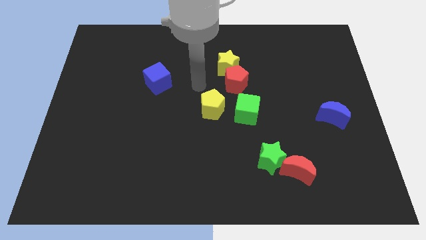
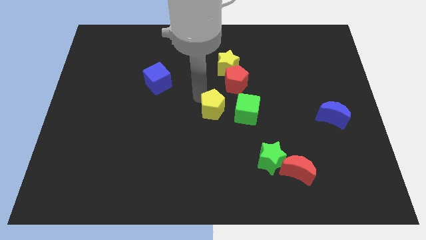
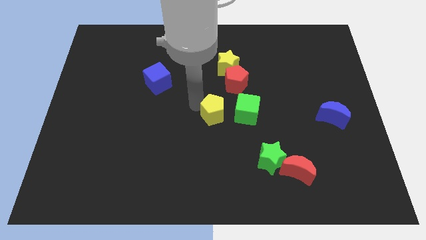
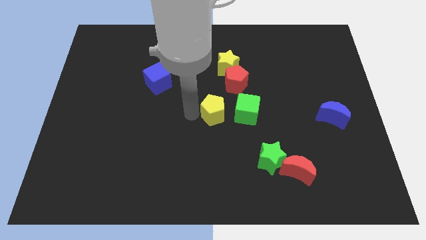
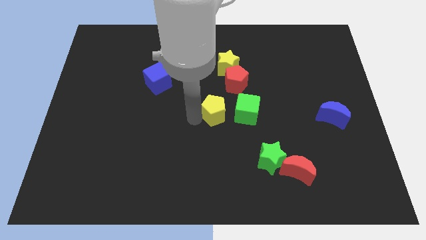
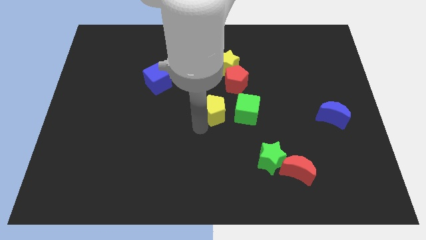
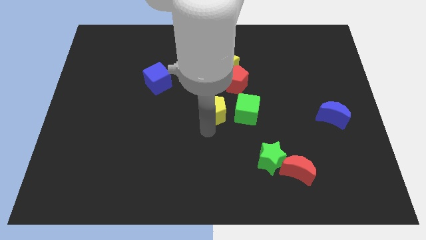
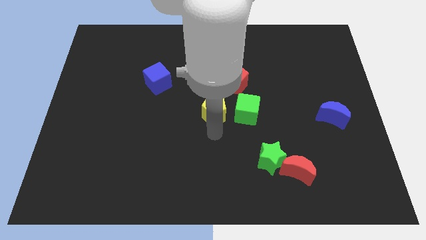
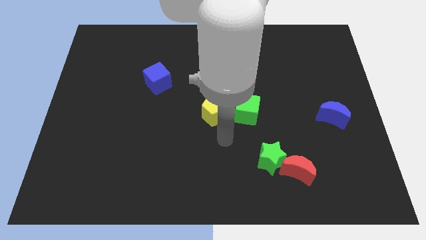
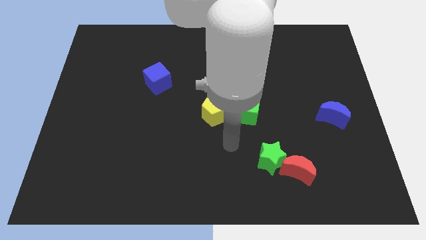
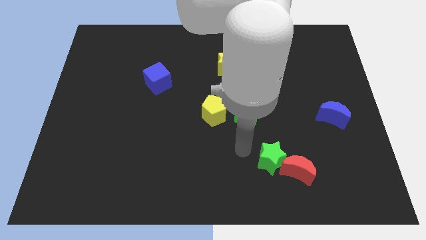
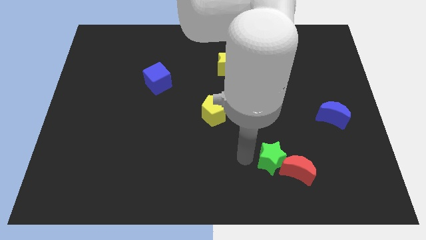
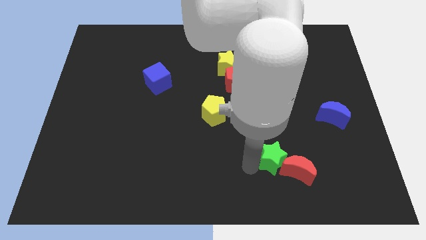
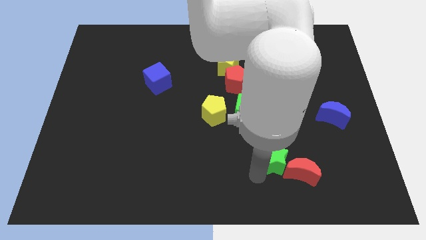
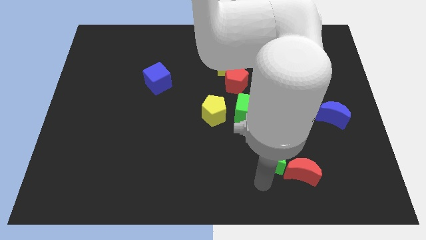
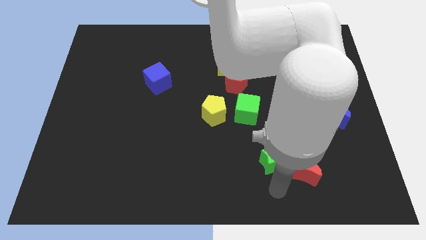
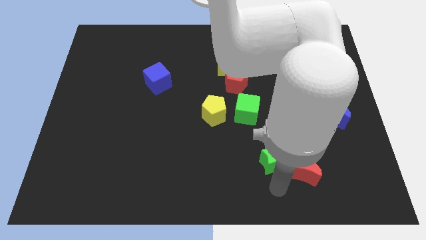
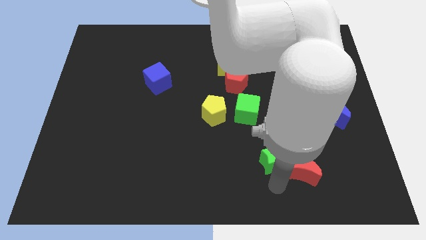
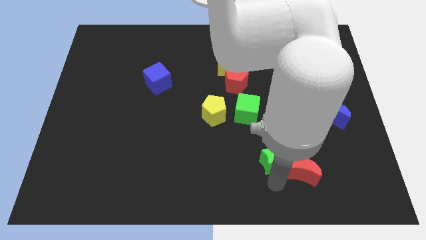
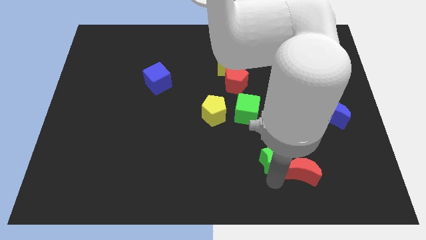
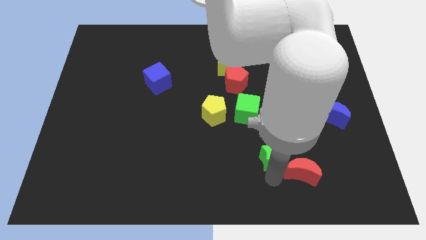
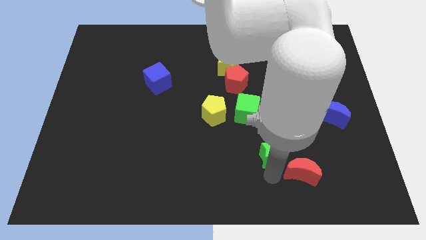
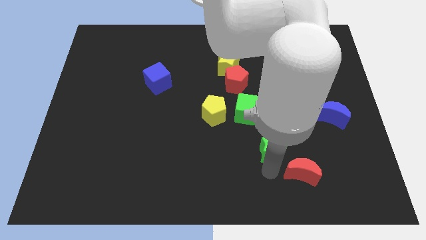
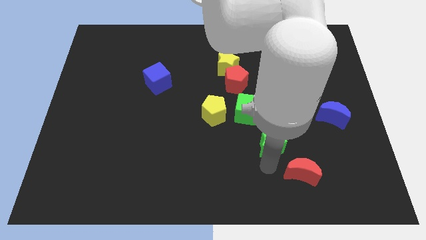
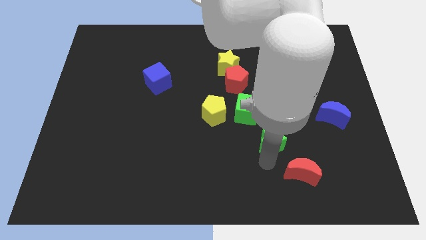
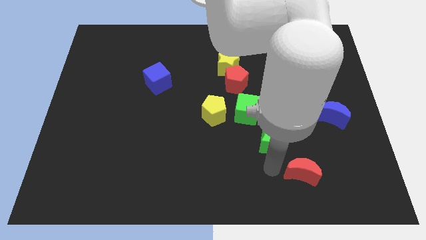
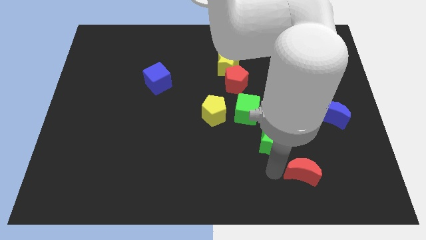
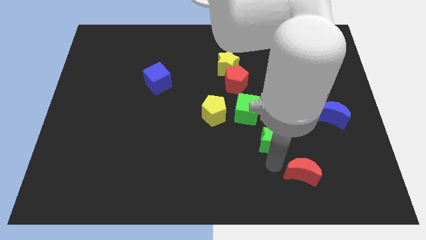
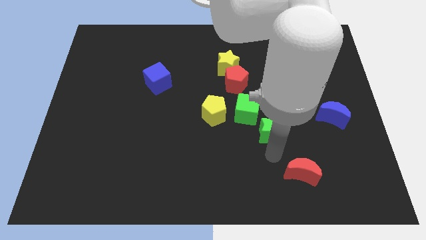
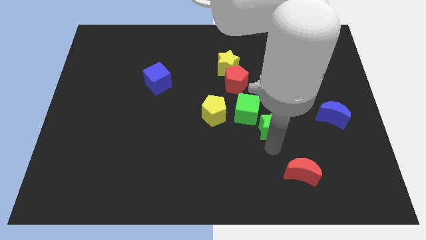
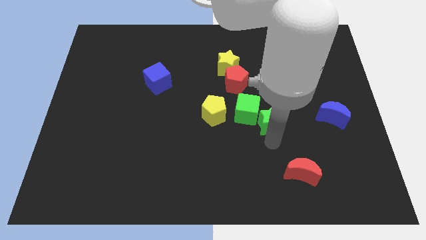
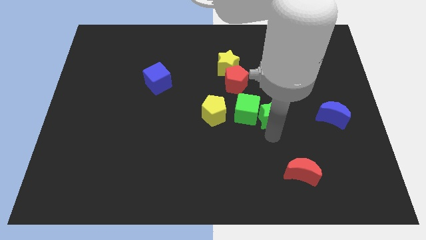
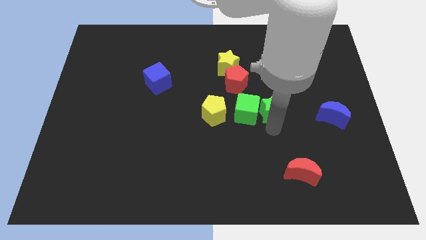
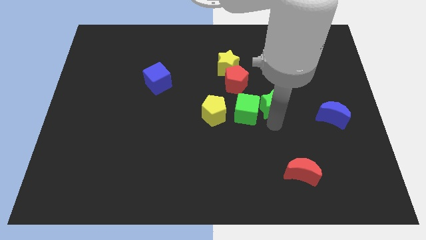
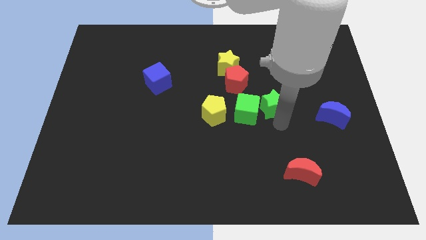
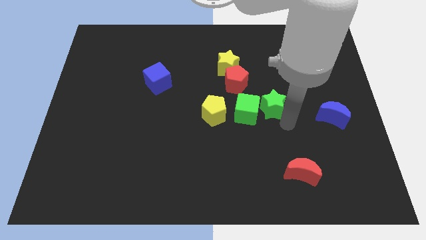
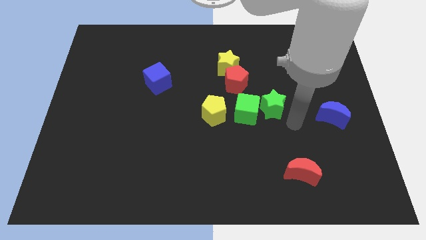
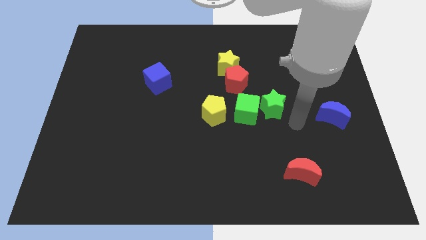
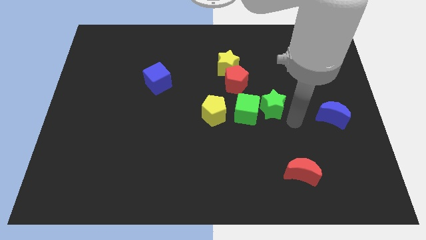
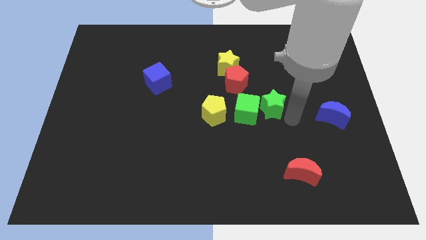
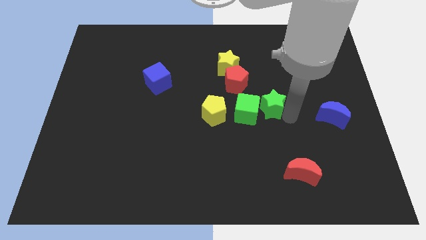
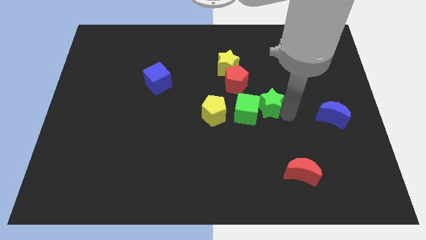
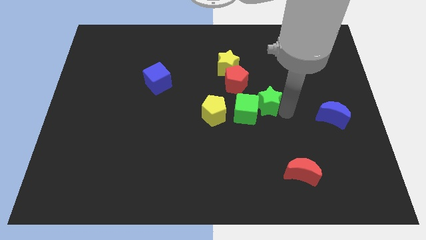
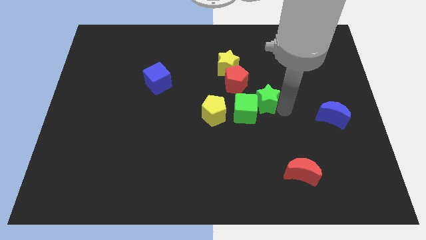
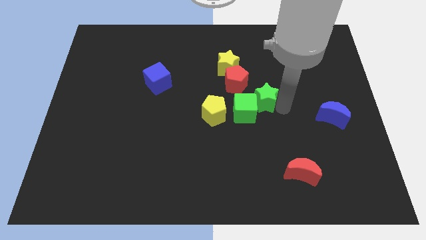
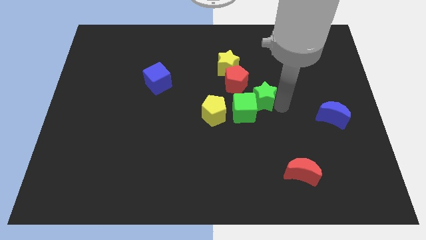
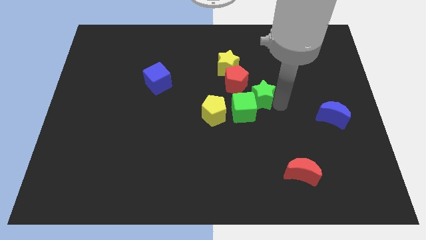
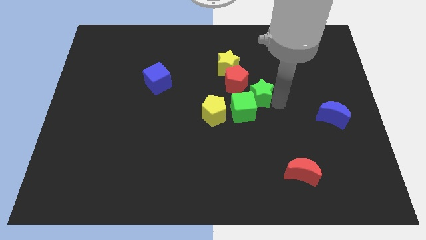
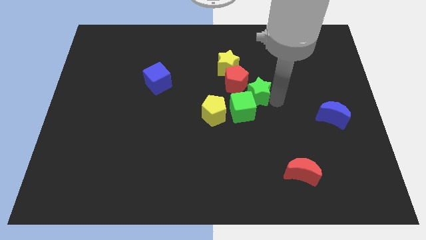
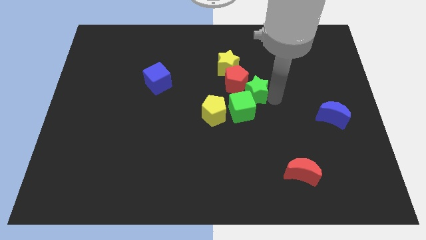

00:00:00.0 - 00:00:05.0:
move the green star close to the red pentagon

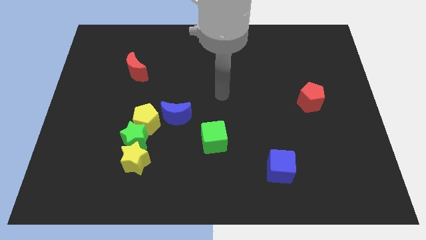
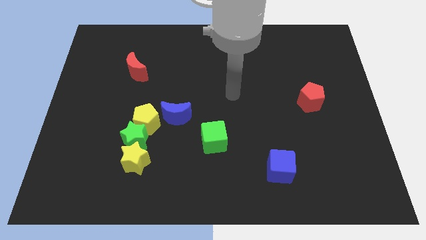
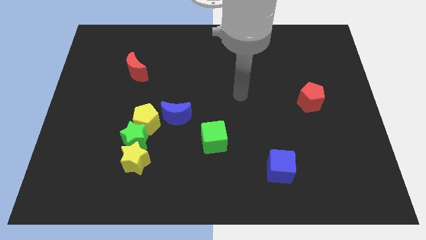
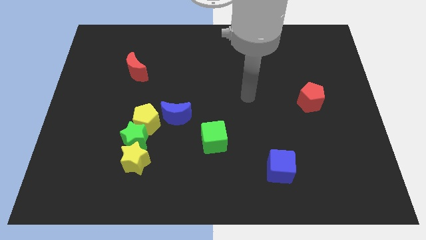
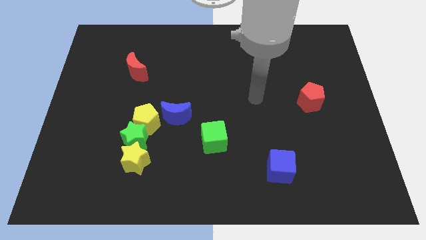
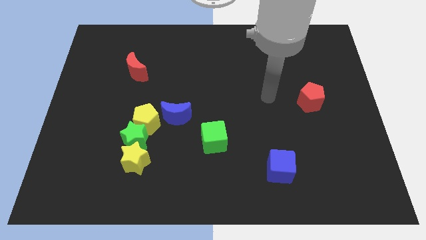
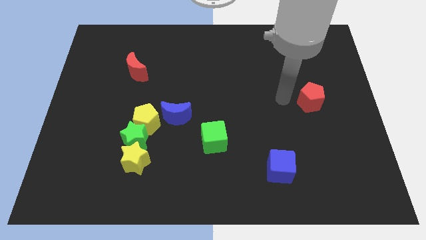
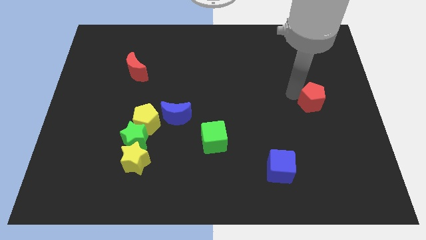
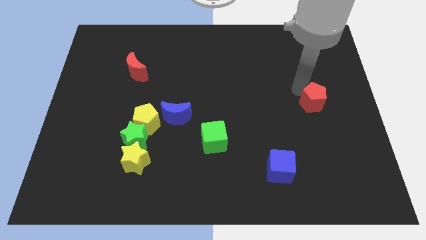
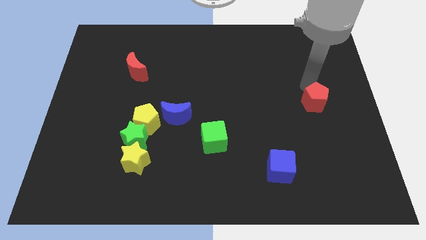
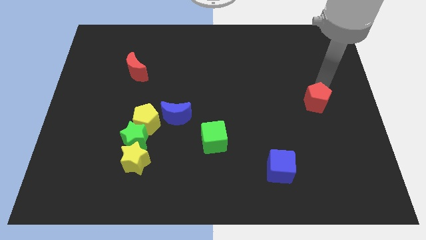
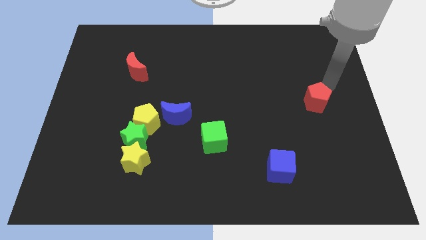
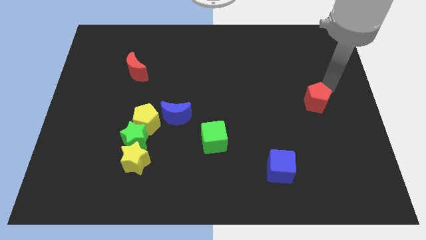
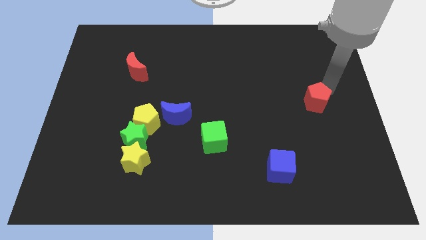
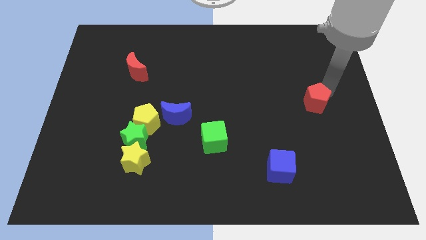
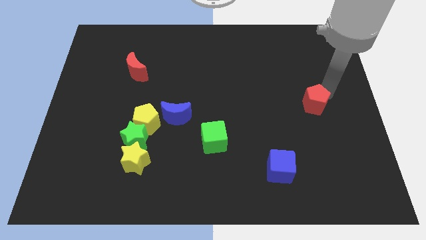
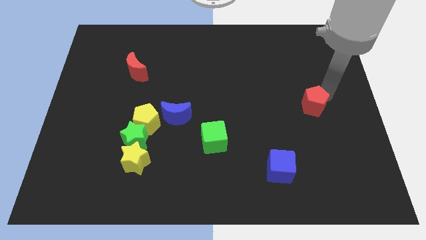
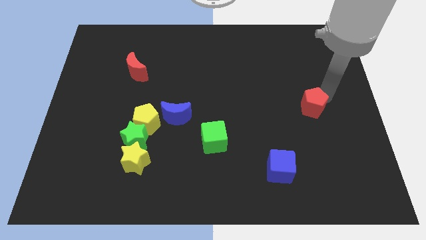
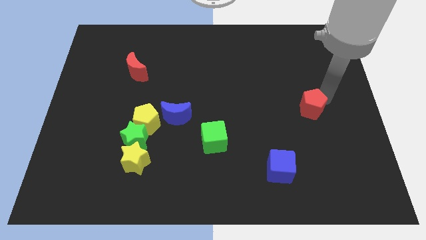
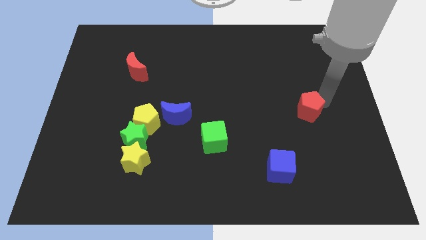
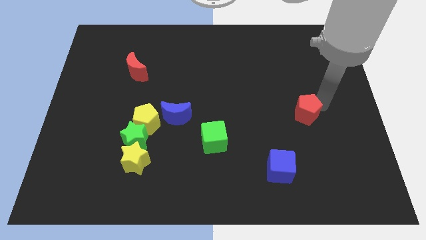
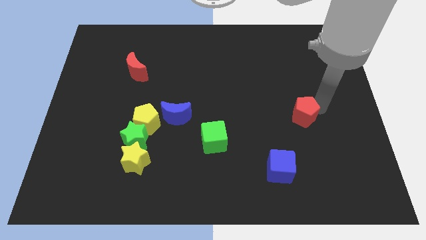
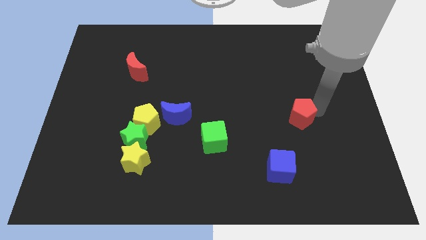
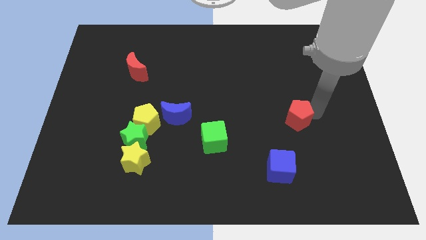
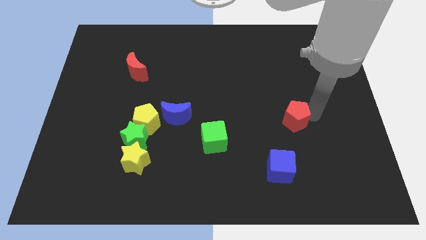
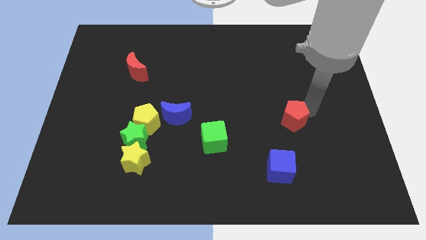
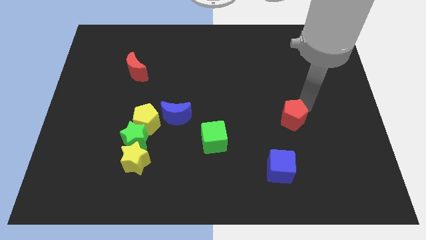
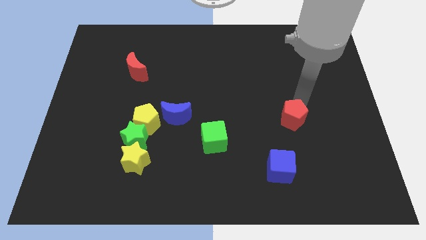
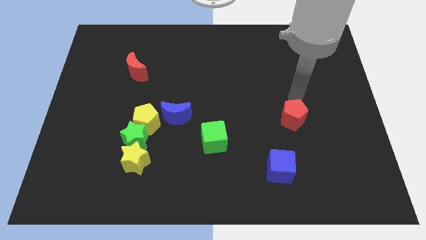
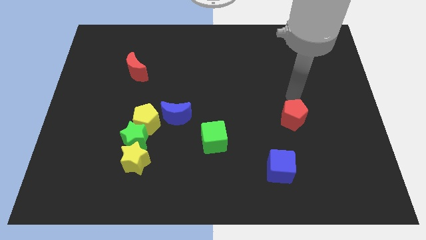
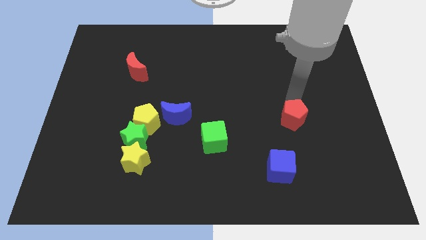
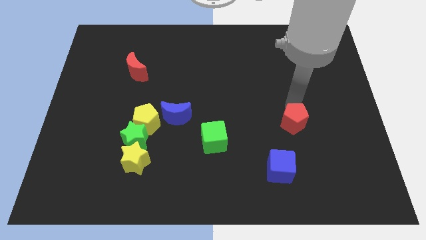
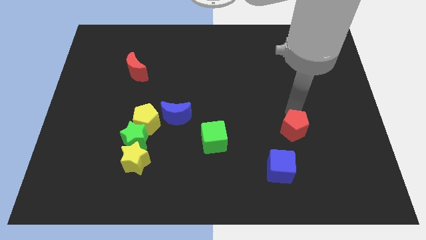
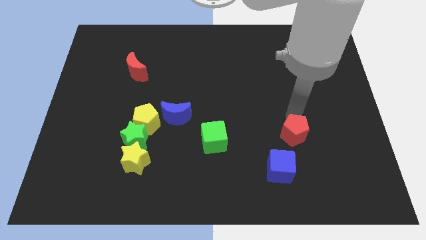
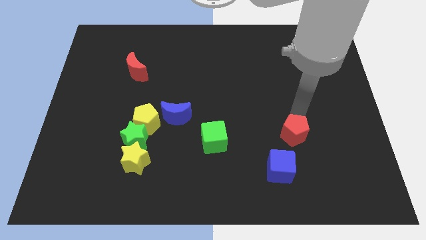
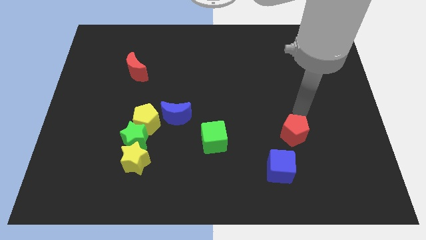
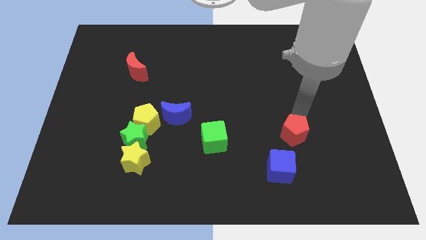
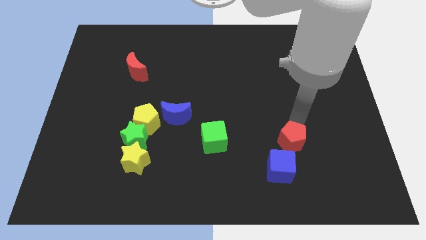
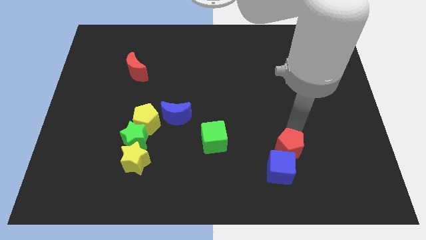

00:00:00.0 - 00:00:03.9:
push the red pentagon to the blue cube
